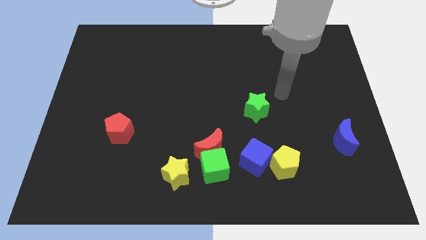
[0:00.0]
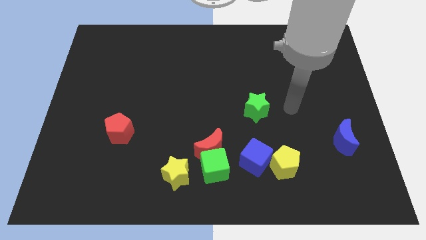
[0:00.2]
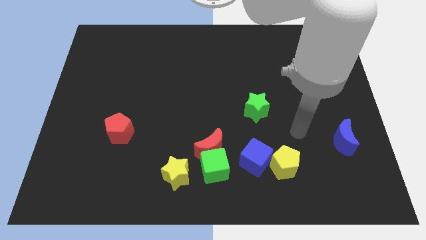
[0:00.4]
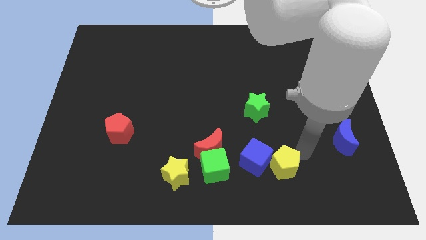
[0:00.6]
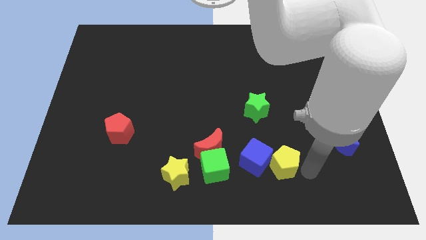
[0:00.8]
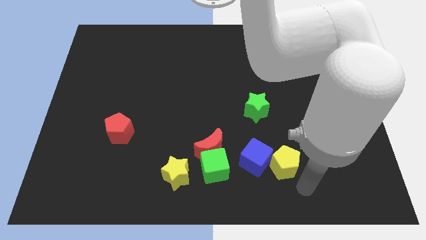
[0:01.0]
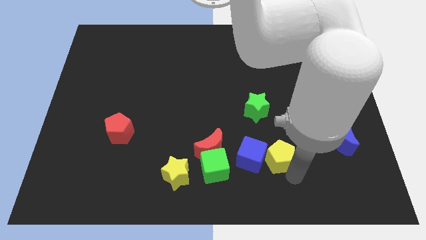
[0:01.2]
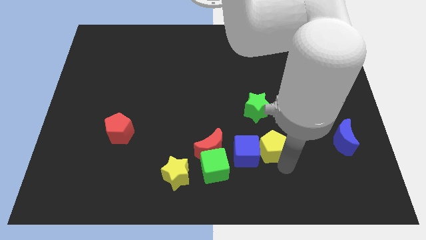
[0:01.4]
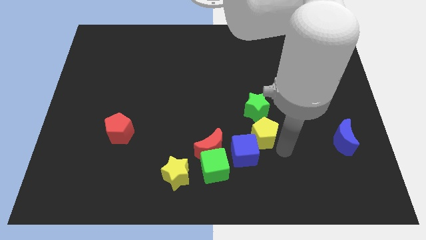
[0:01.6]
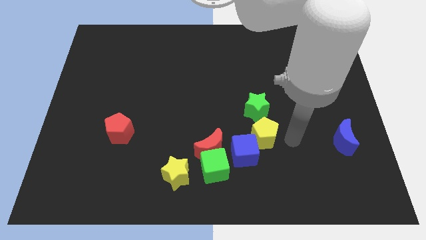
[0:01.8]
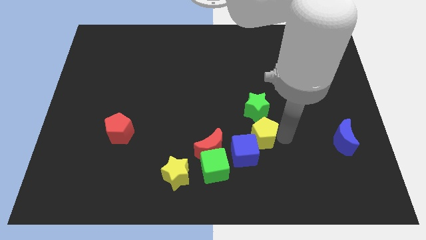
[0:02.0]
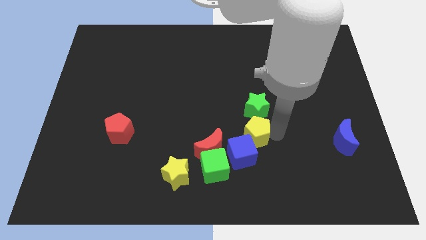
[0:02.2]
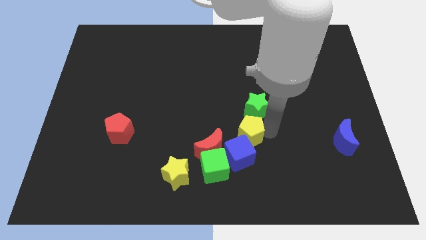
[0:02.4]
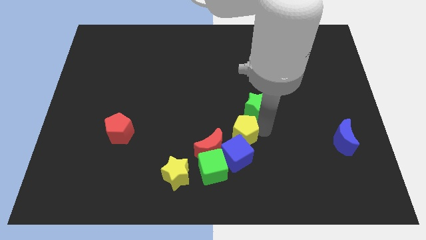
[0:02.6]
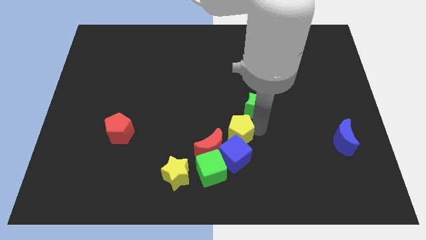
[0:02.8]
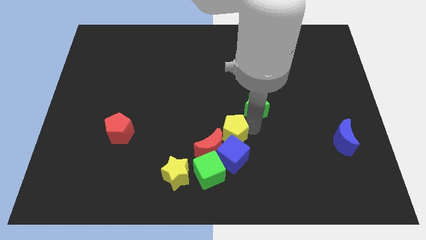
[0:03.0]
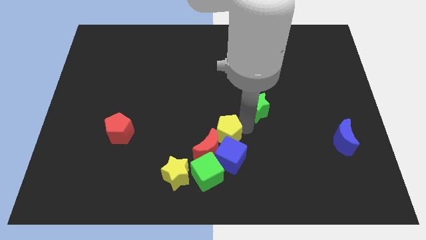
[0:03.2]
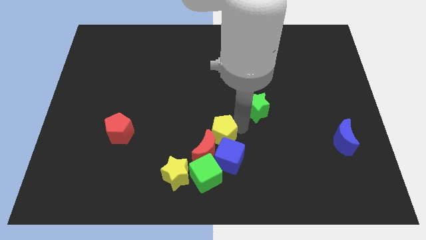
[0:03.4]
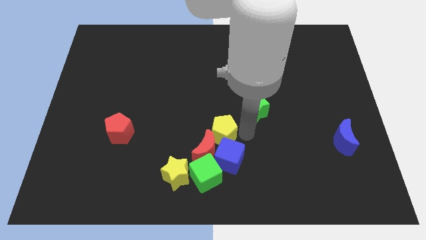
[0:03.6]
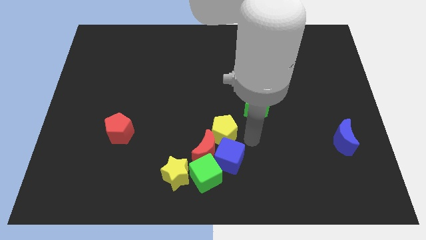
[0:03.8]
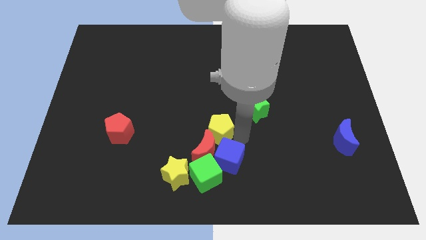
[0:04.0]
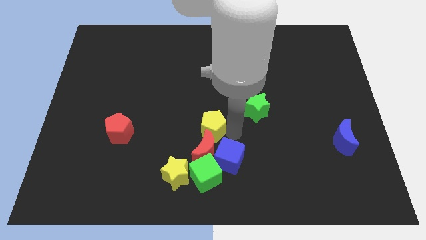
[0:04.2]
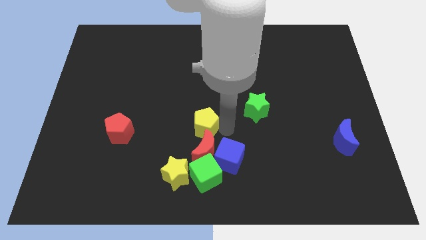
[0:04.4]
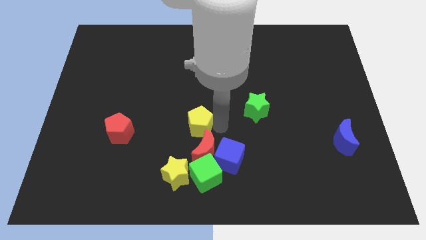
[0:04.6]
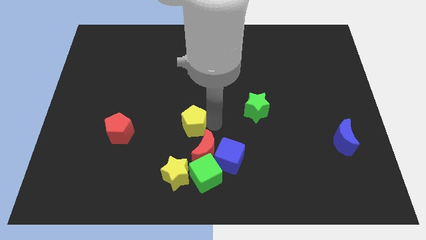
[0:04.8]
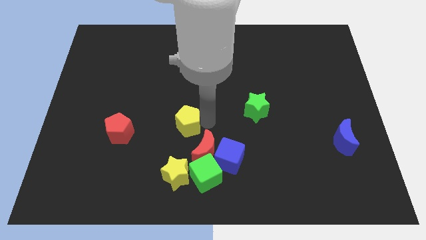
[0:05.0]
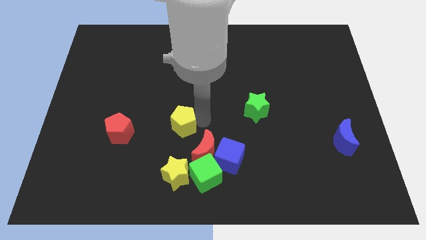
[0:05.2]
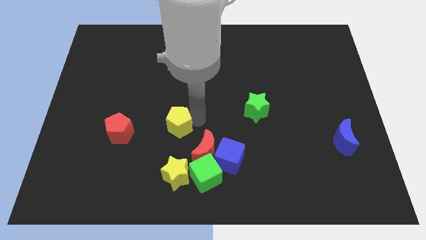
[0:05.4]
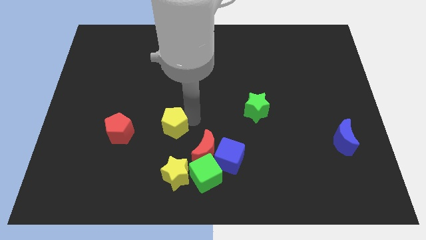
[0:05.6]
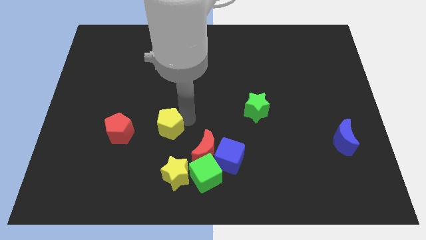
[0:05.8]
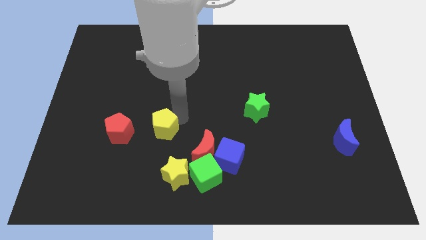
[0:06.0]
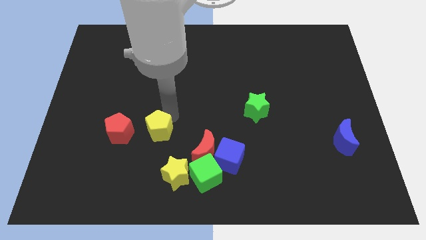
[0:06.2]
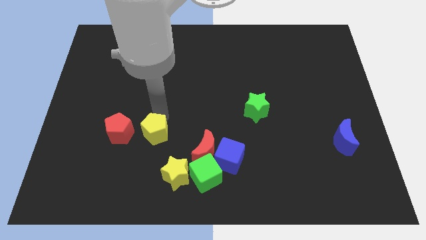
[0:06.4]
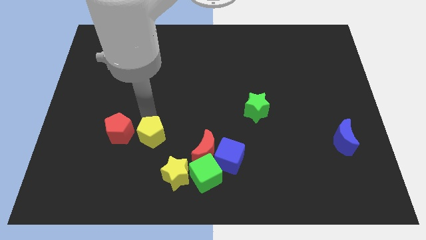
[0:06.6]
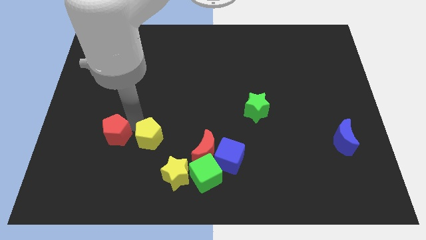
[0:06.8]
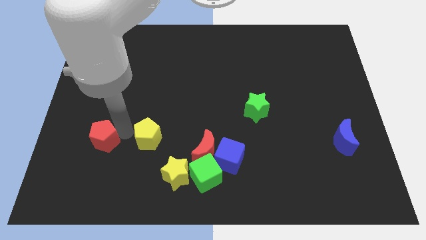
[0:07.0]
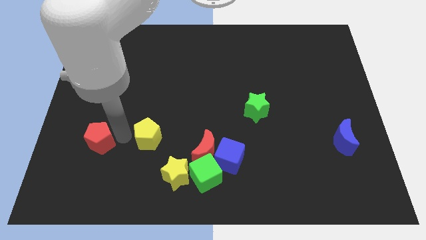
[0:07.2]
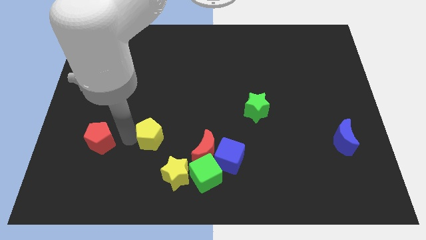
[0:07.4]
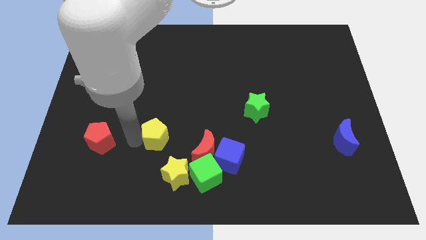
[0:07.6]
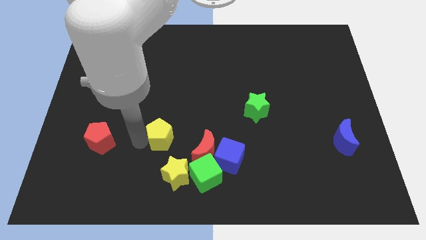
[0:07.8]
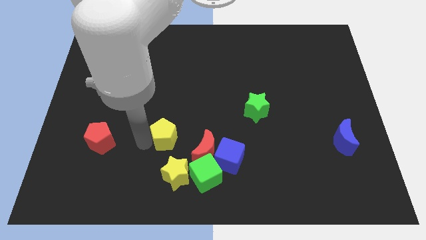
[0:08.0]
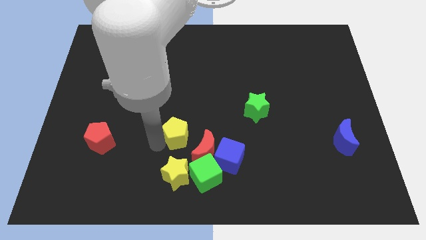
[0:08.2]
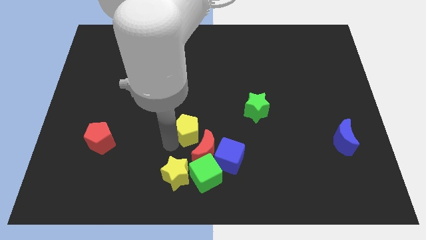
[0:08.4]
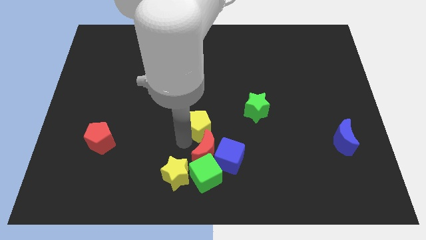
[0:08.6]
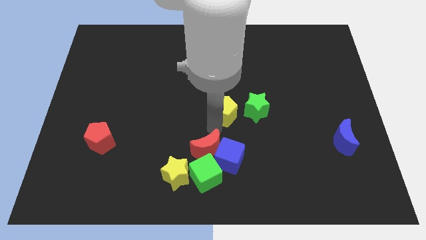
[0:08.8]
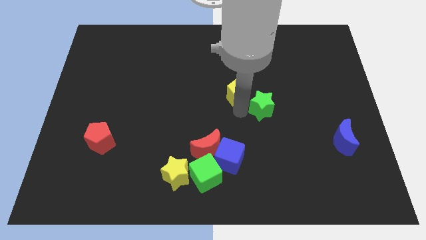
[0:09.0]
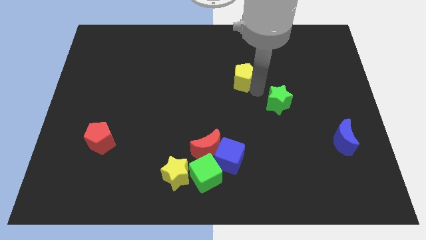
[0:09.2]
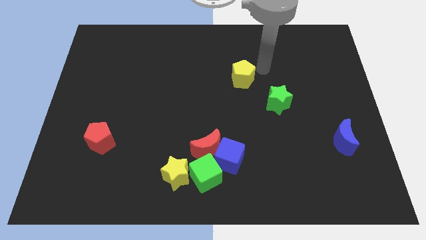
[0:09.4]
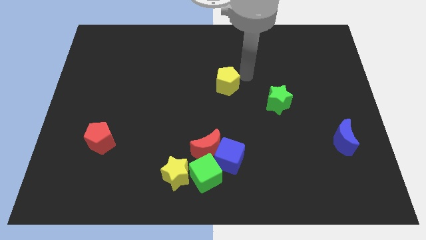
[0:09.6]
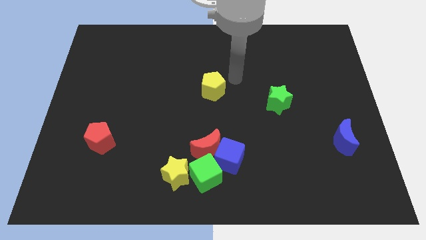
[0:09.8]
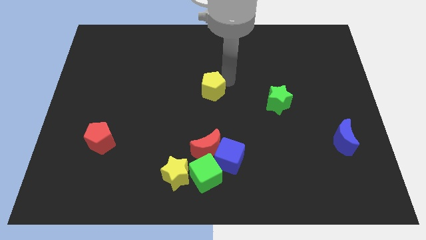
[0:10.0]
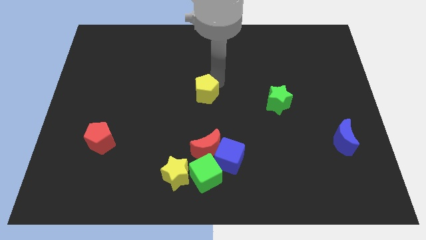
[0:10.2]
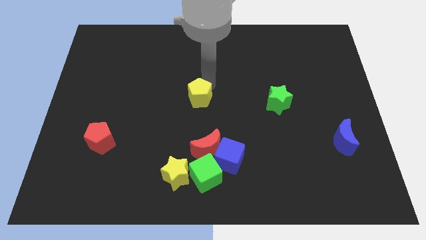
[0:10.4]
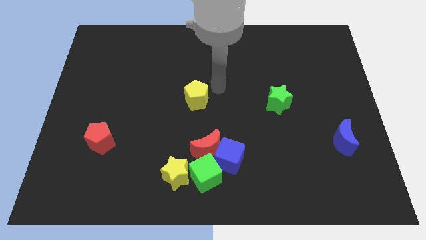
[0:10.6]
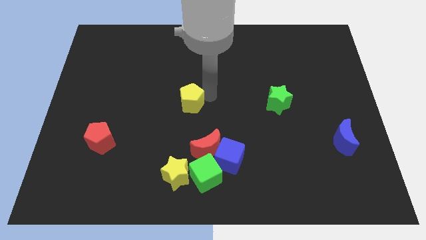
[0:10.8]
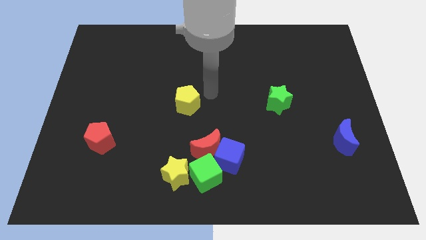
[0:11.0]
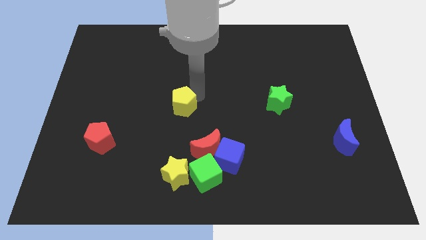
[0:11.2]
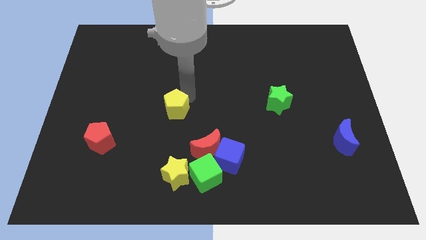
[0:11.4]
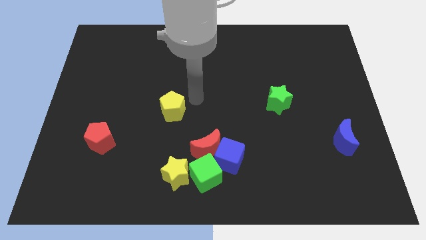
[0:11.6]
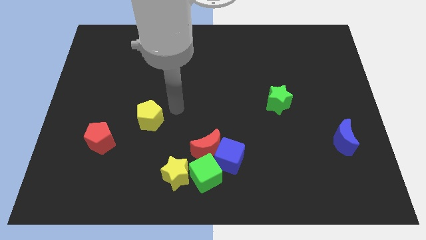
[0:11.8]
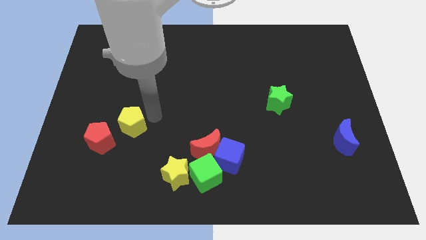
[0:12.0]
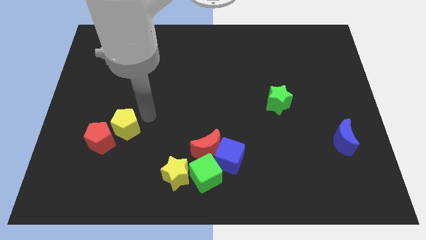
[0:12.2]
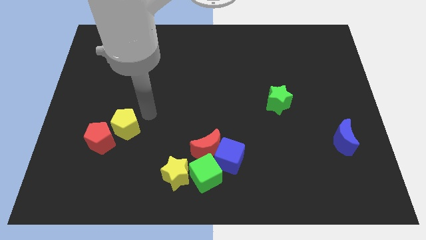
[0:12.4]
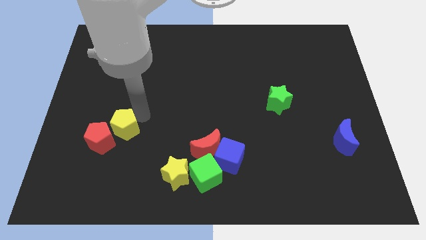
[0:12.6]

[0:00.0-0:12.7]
push the yellow pentagon close to the red pentagon

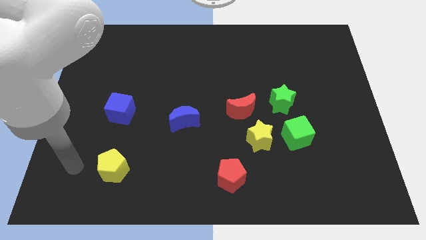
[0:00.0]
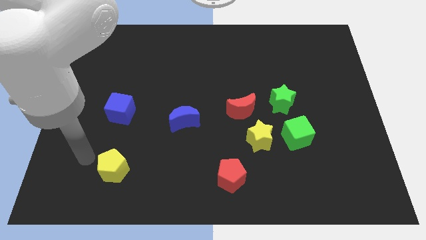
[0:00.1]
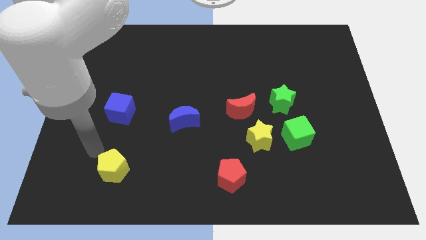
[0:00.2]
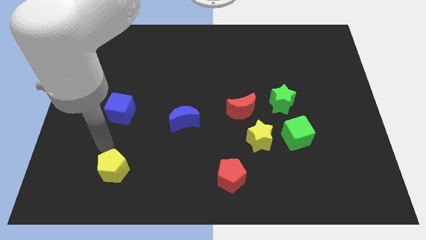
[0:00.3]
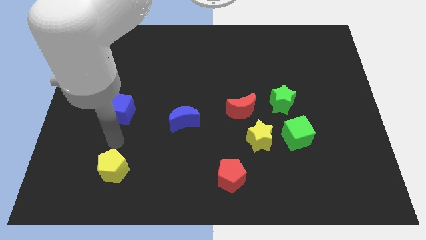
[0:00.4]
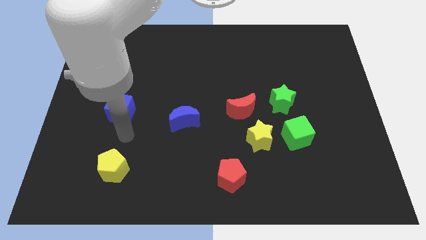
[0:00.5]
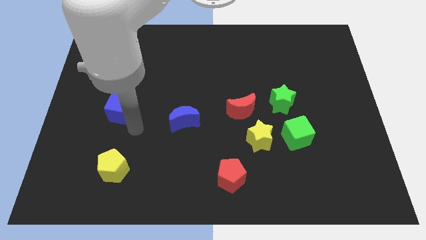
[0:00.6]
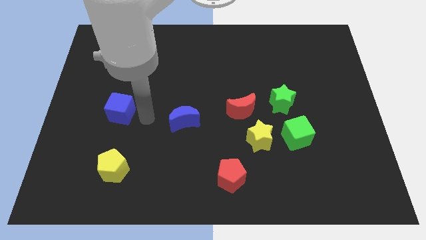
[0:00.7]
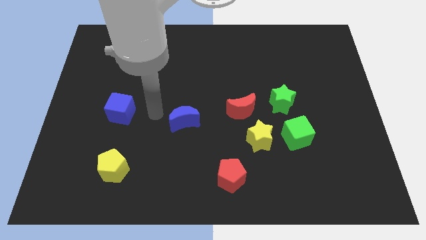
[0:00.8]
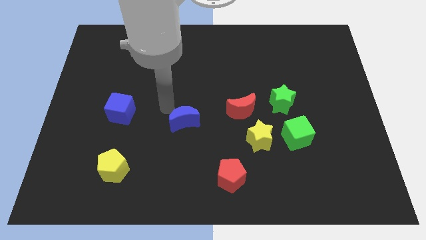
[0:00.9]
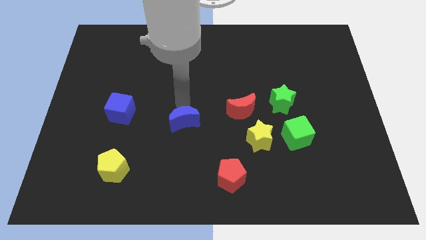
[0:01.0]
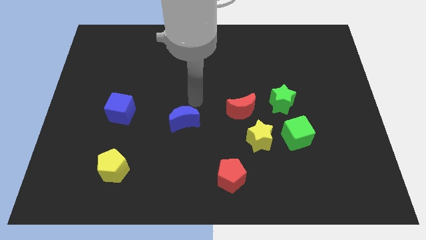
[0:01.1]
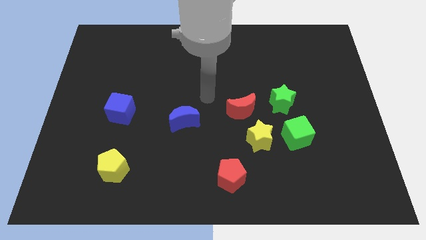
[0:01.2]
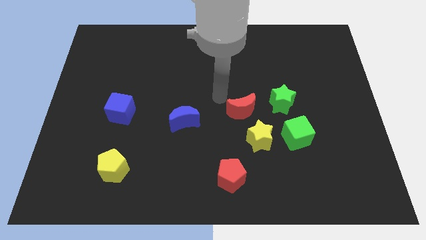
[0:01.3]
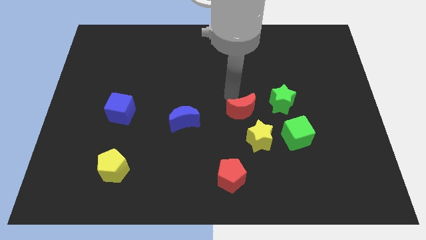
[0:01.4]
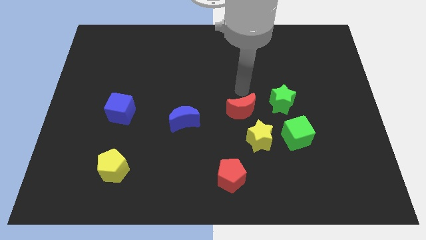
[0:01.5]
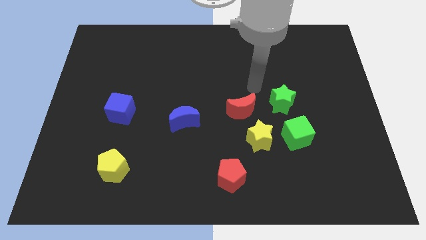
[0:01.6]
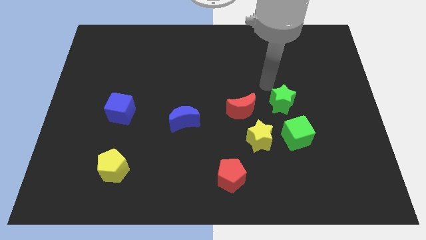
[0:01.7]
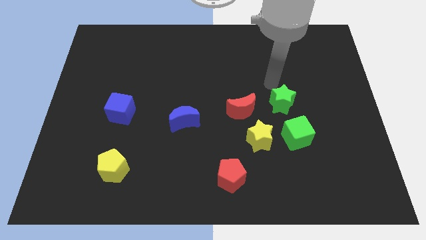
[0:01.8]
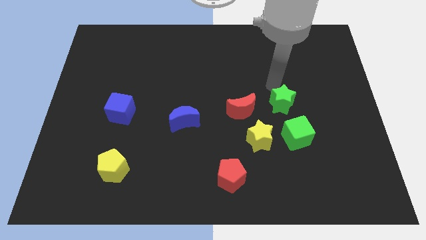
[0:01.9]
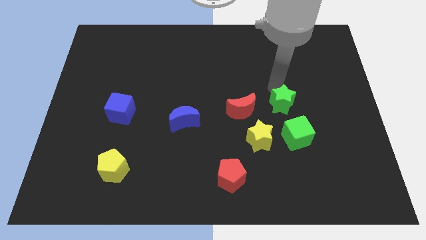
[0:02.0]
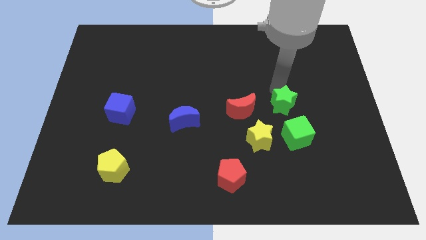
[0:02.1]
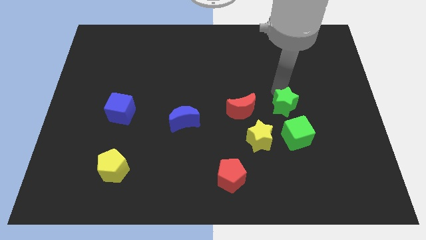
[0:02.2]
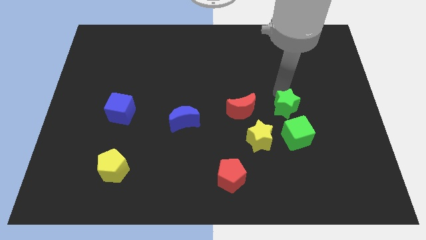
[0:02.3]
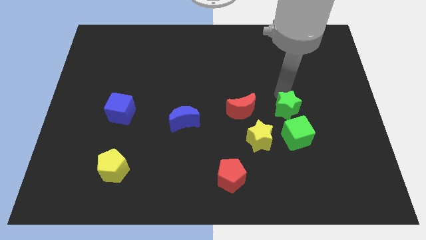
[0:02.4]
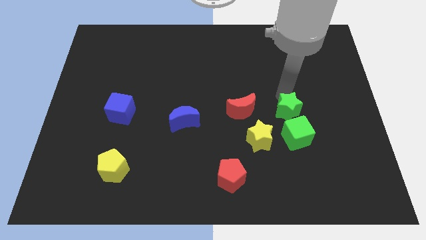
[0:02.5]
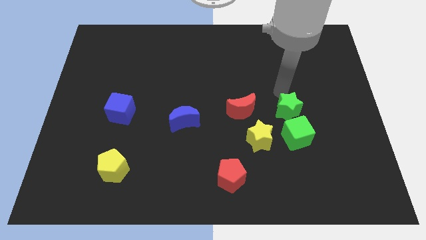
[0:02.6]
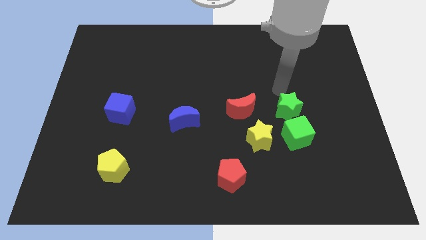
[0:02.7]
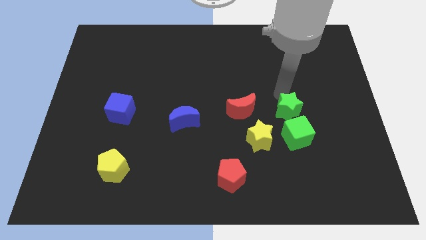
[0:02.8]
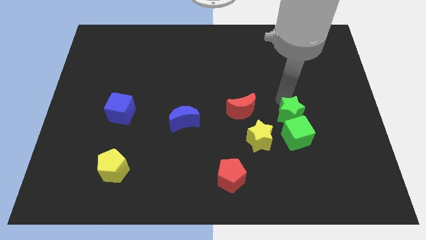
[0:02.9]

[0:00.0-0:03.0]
move the green star close to the green cube
